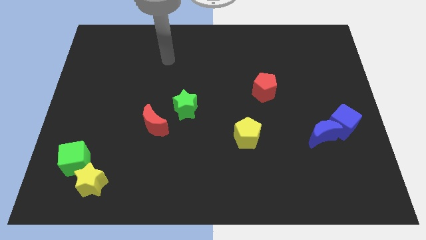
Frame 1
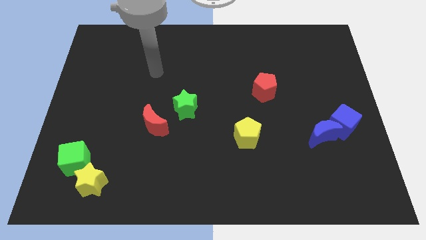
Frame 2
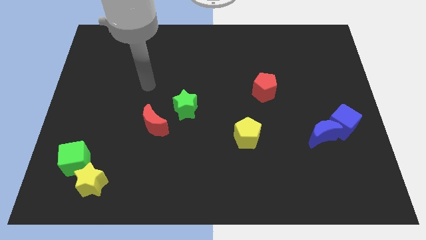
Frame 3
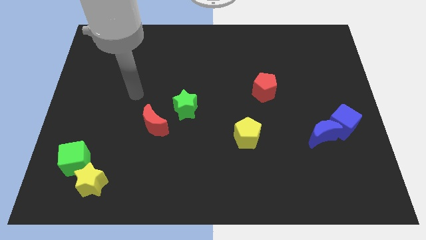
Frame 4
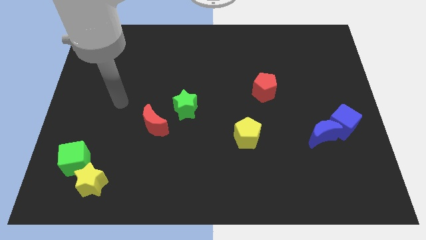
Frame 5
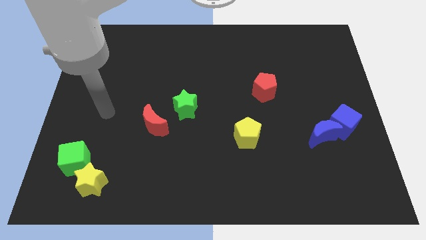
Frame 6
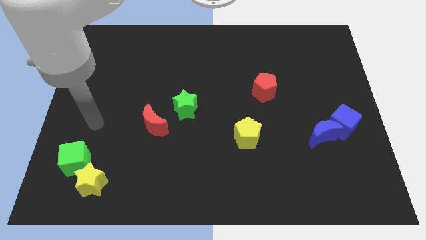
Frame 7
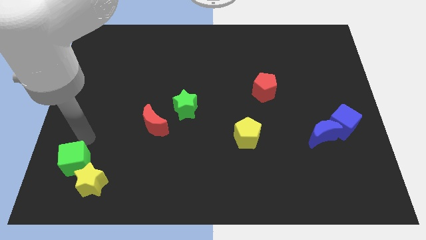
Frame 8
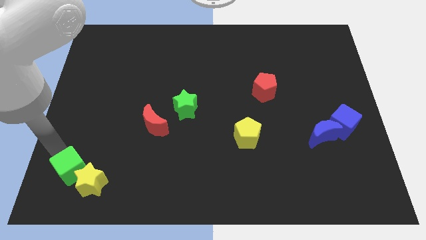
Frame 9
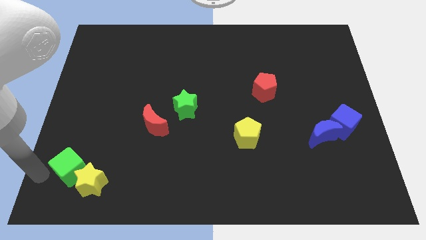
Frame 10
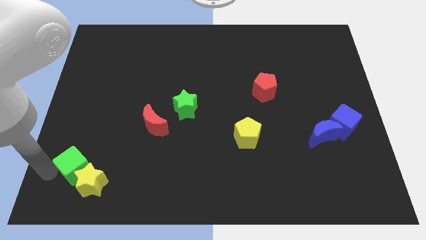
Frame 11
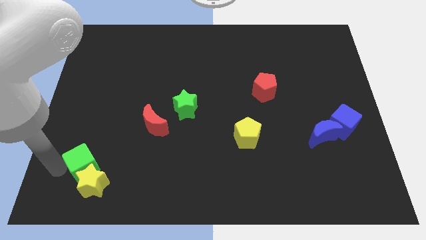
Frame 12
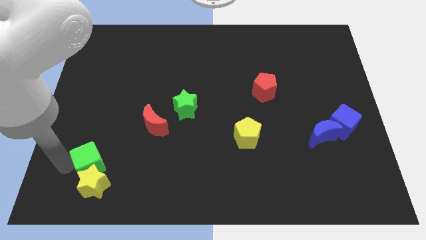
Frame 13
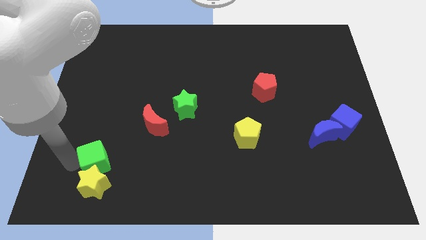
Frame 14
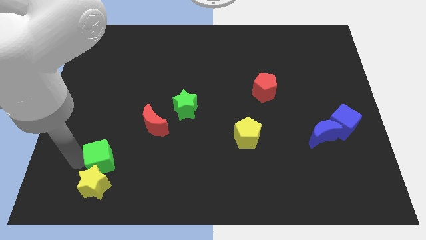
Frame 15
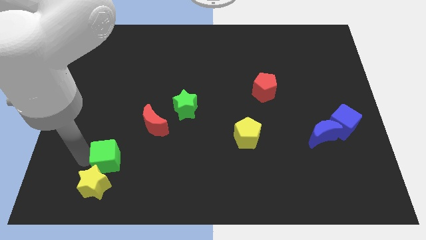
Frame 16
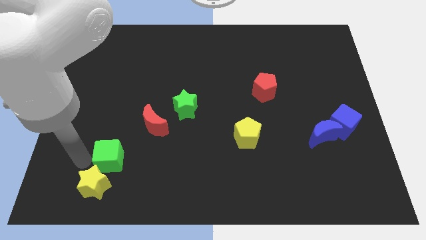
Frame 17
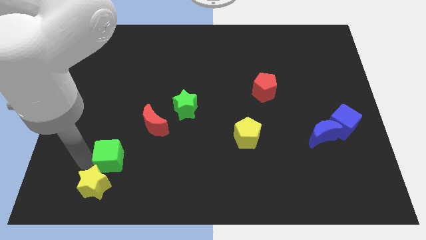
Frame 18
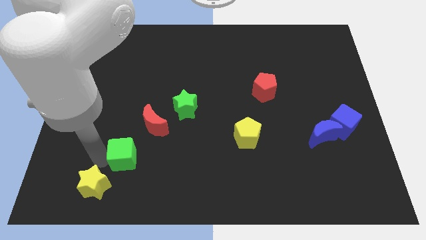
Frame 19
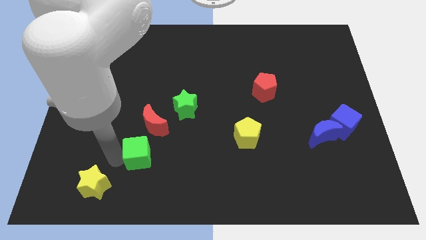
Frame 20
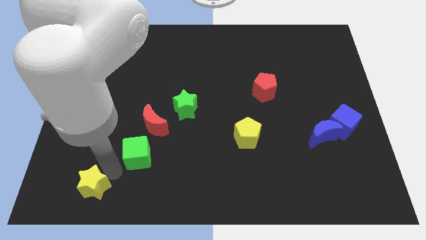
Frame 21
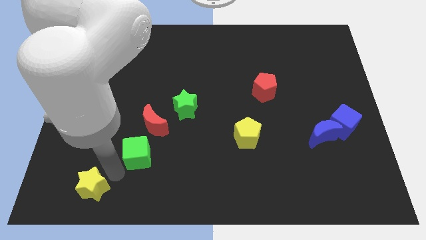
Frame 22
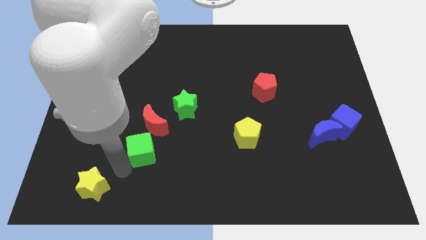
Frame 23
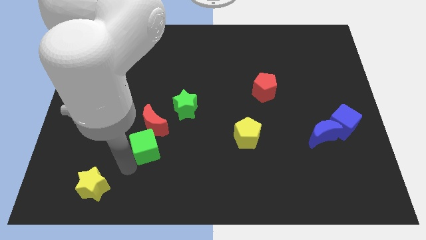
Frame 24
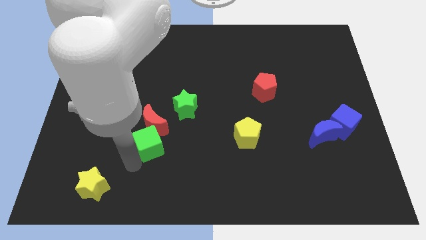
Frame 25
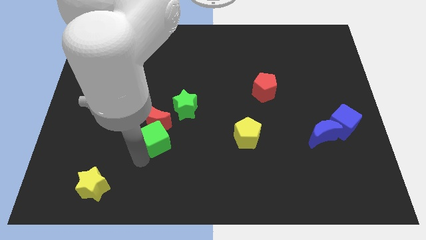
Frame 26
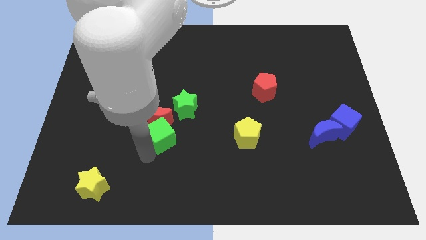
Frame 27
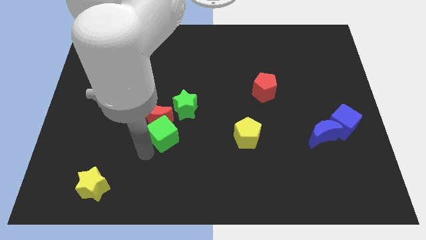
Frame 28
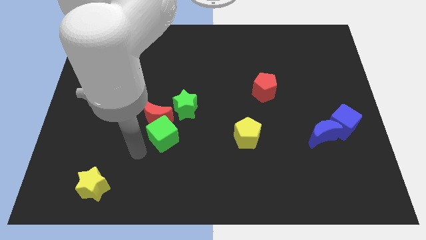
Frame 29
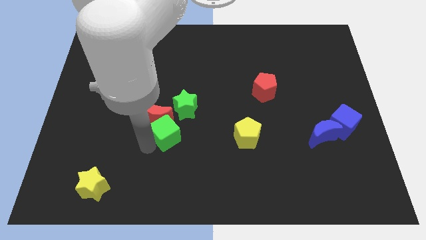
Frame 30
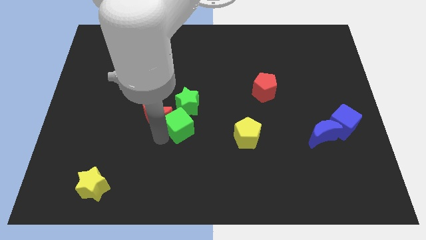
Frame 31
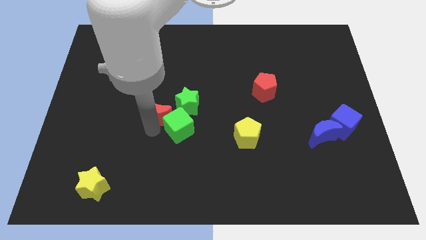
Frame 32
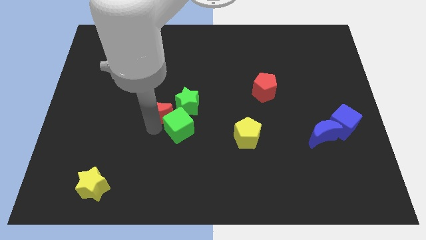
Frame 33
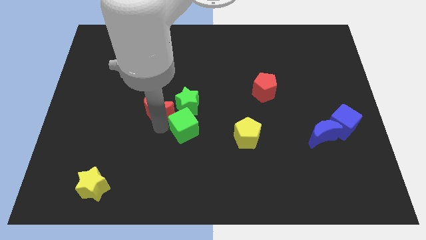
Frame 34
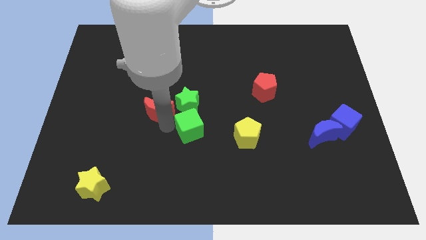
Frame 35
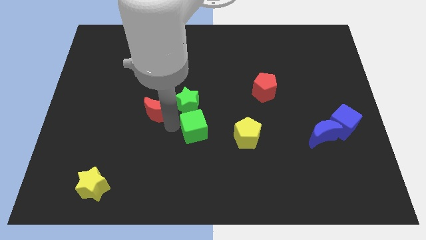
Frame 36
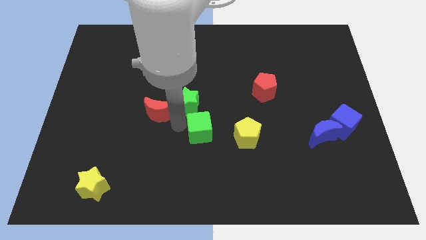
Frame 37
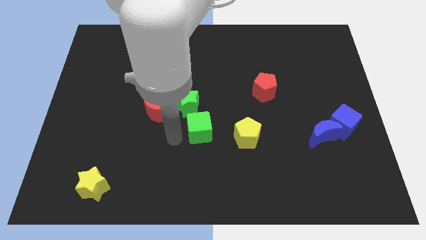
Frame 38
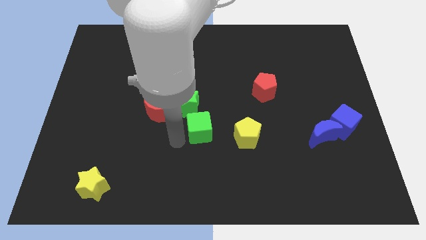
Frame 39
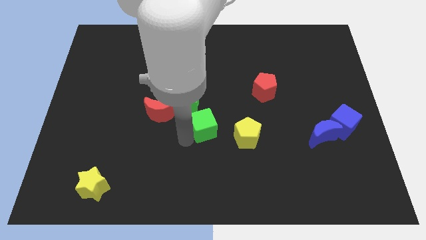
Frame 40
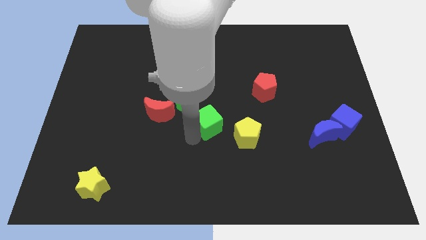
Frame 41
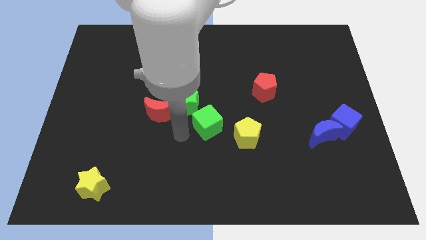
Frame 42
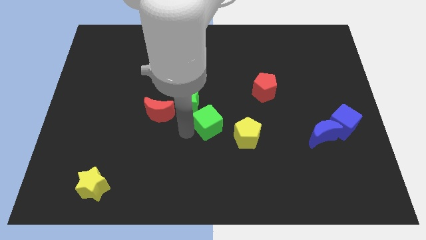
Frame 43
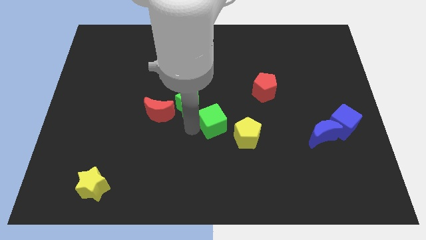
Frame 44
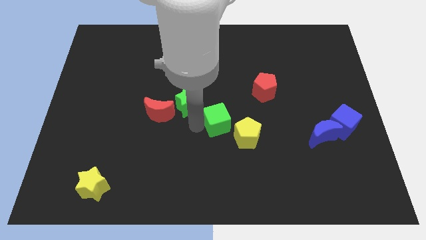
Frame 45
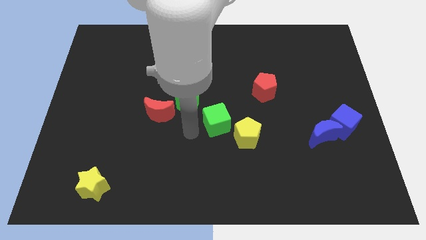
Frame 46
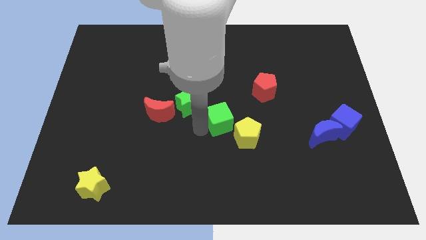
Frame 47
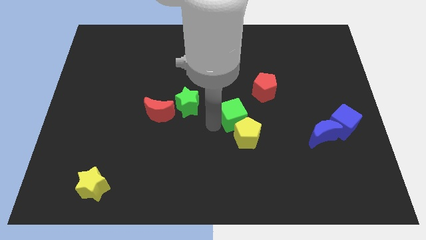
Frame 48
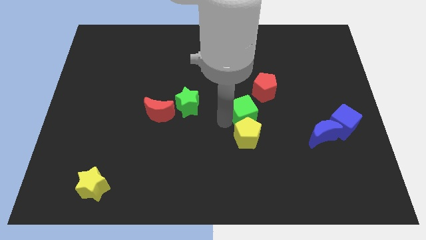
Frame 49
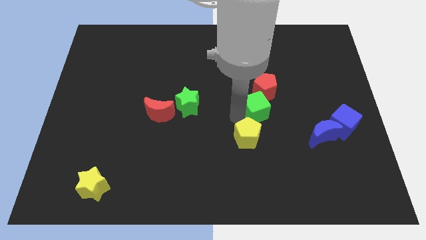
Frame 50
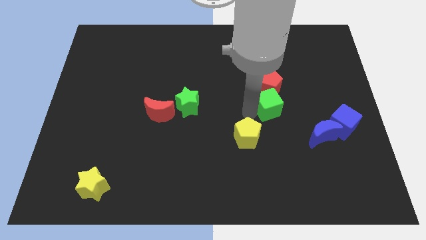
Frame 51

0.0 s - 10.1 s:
slide the green cube to the bottom right side of the red pentagon

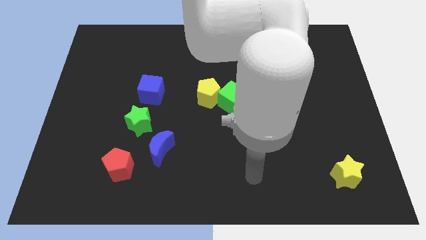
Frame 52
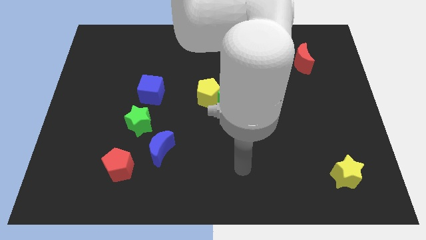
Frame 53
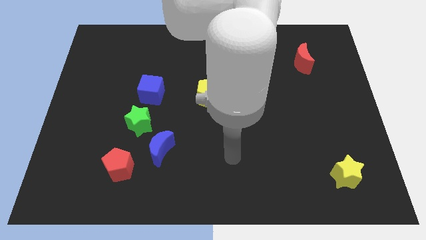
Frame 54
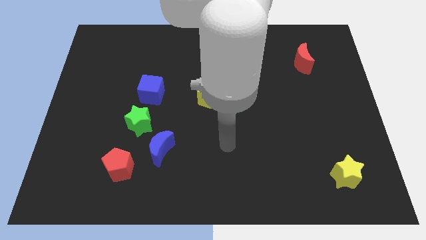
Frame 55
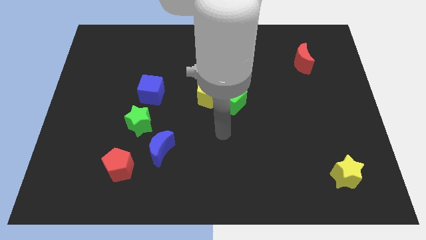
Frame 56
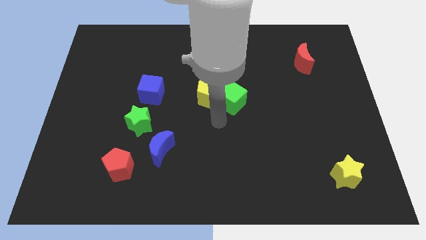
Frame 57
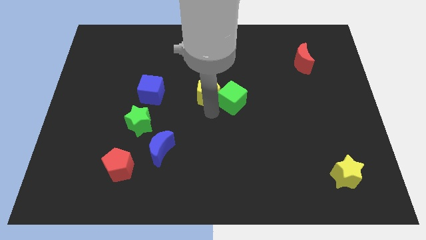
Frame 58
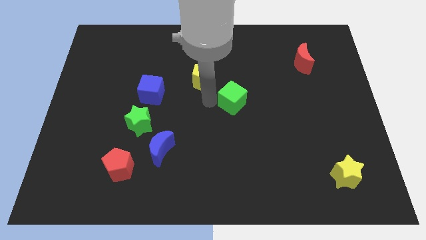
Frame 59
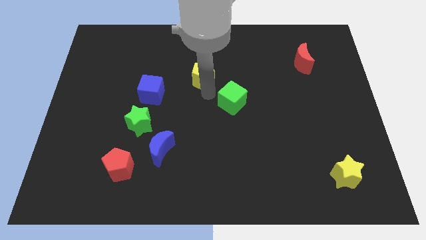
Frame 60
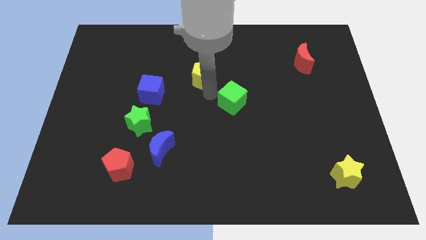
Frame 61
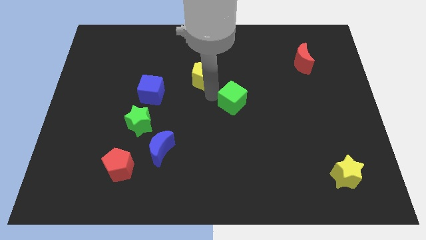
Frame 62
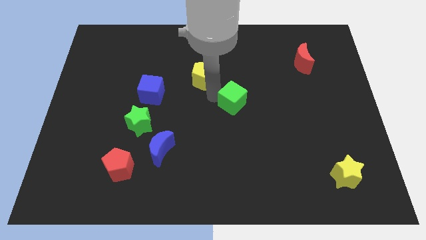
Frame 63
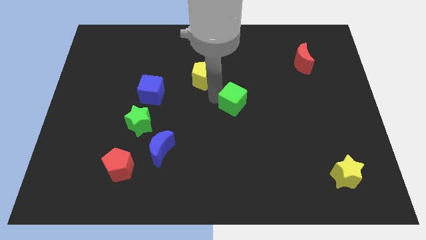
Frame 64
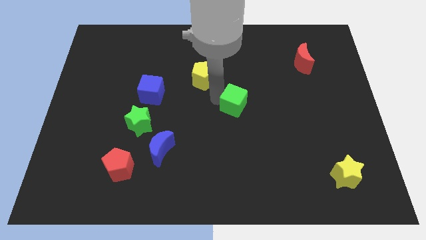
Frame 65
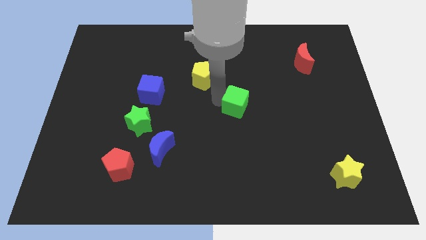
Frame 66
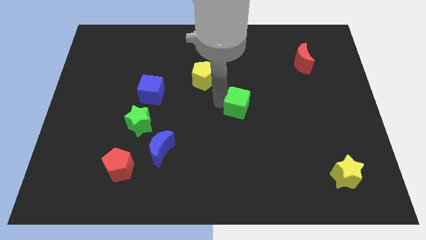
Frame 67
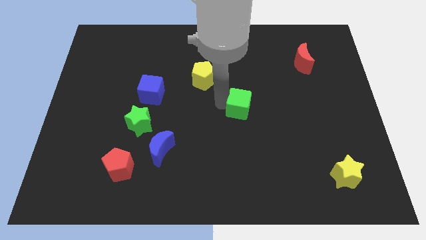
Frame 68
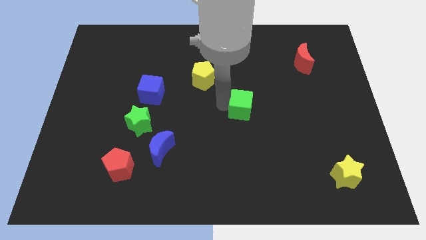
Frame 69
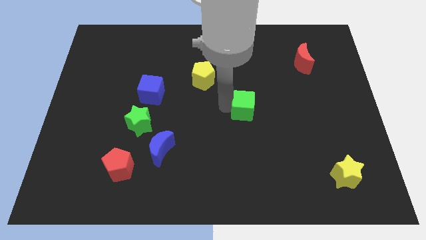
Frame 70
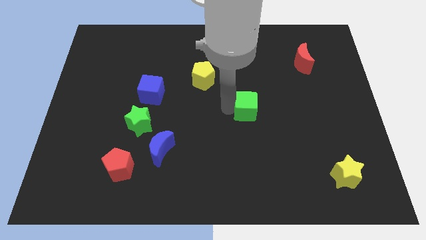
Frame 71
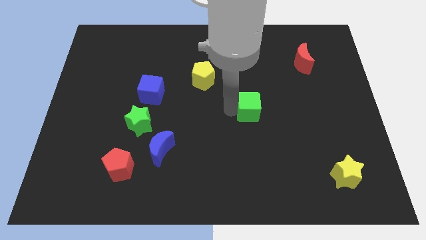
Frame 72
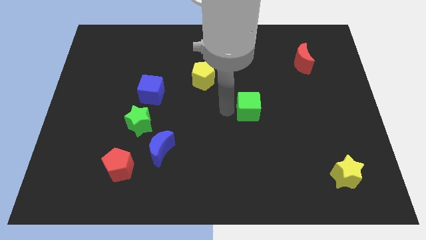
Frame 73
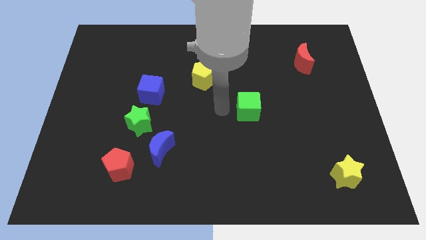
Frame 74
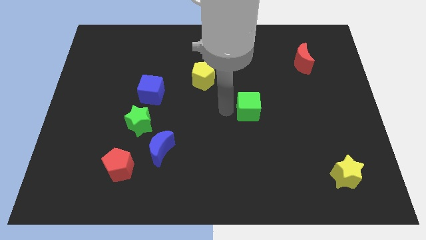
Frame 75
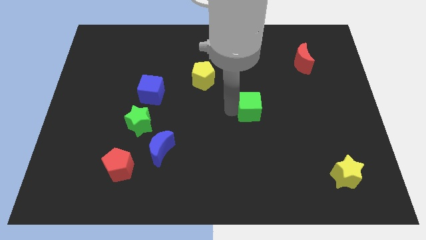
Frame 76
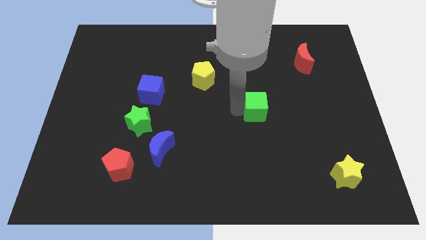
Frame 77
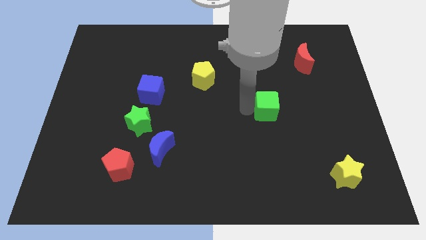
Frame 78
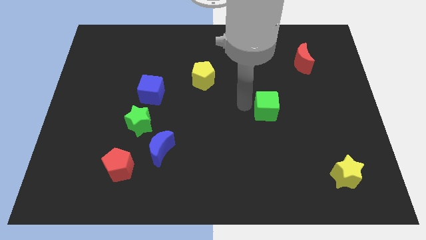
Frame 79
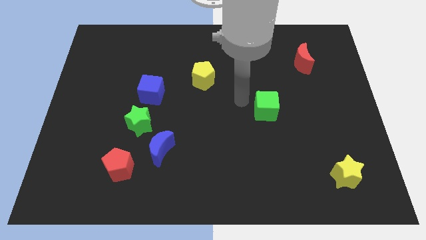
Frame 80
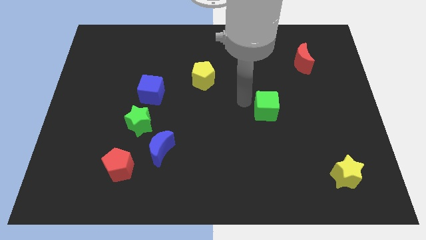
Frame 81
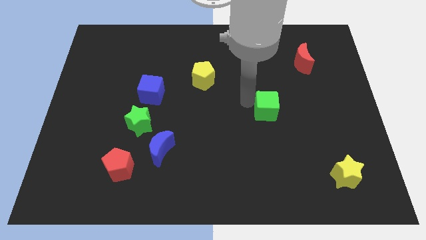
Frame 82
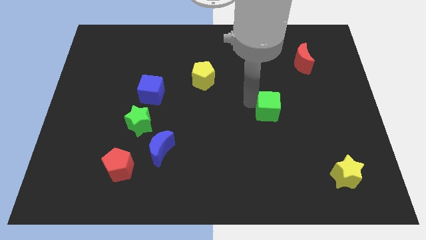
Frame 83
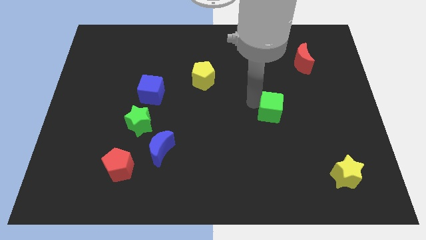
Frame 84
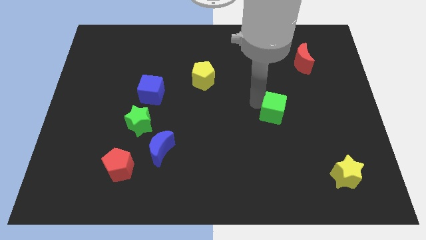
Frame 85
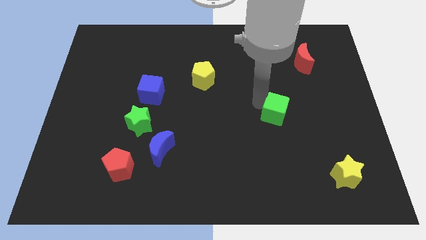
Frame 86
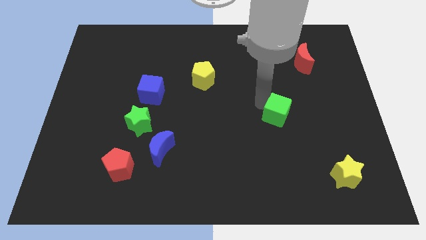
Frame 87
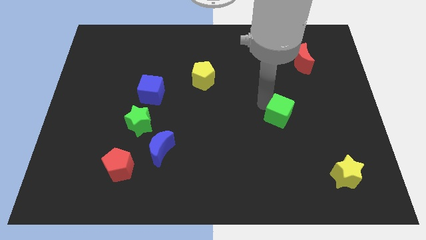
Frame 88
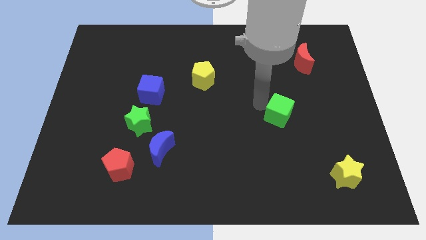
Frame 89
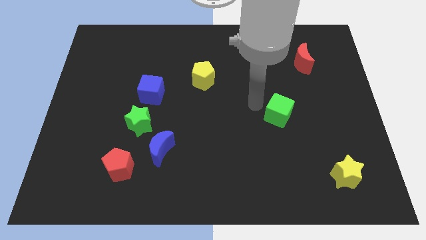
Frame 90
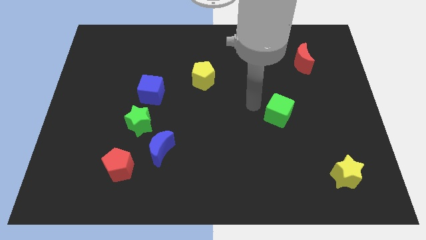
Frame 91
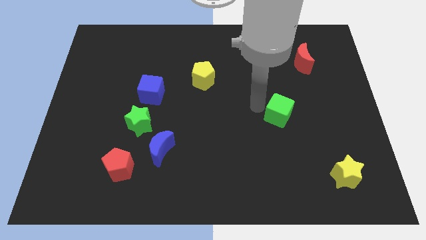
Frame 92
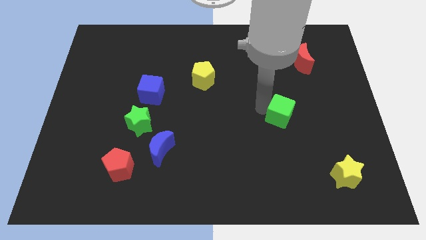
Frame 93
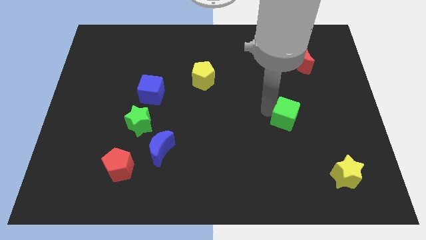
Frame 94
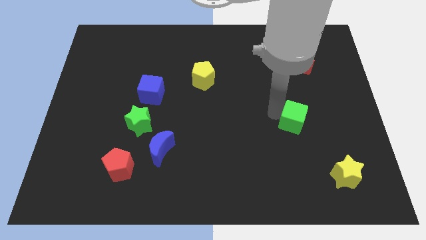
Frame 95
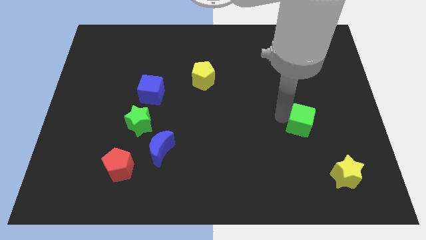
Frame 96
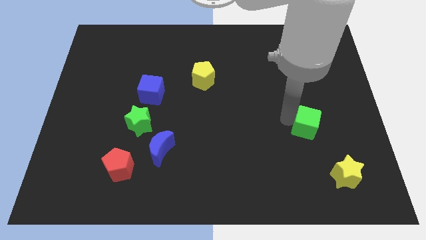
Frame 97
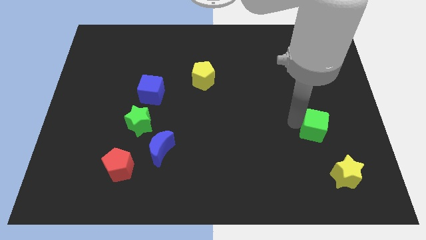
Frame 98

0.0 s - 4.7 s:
slide the green cube to the top side of the yellow star
